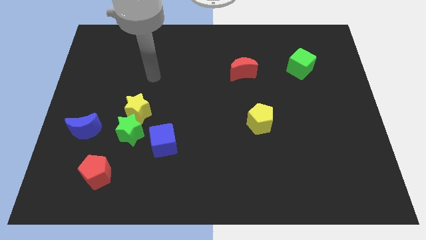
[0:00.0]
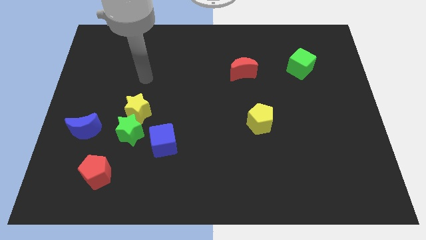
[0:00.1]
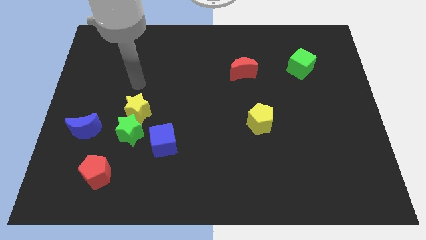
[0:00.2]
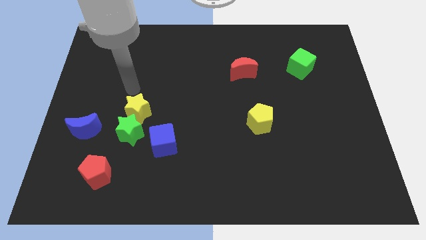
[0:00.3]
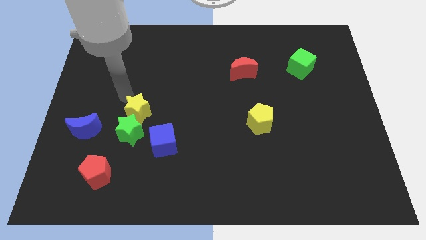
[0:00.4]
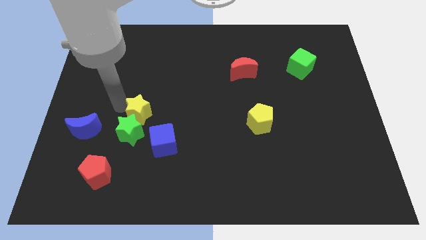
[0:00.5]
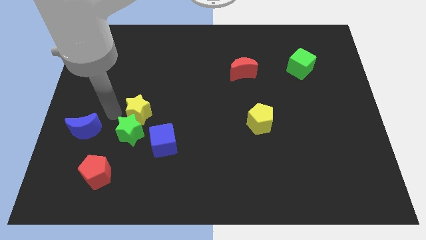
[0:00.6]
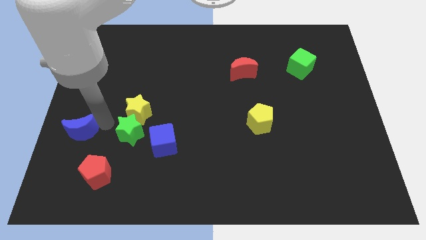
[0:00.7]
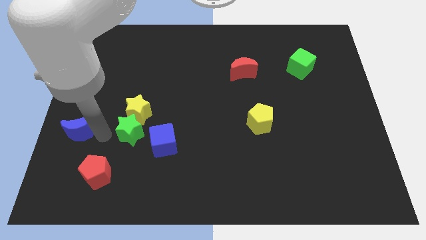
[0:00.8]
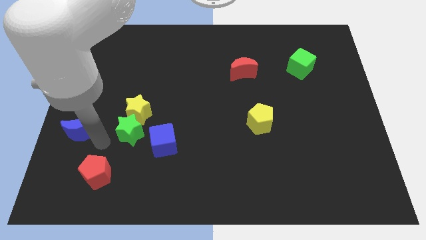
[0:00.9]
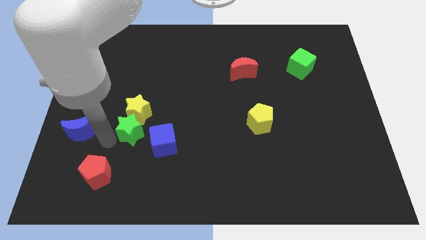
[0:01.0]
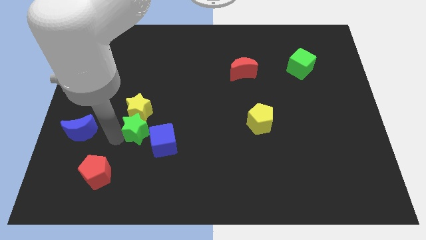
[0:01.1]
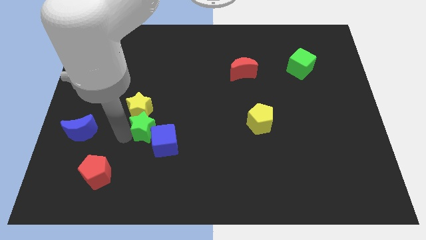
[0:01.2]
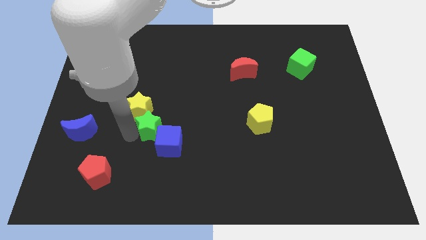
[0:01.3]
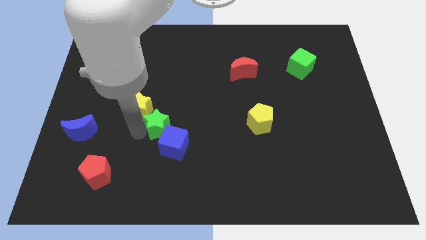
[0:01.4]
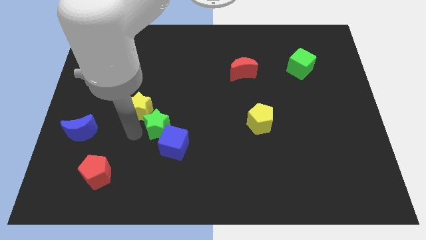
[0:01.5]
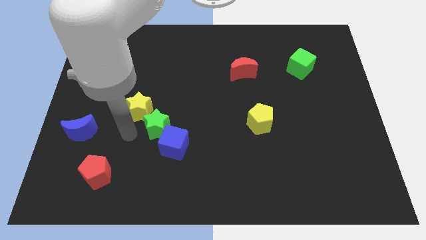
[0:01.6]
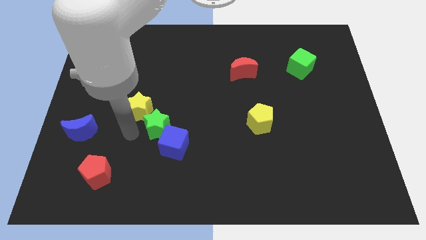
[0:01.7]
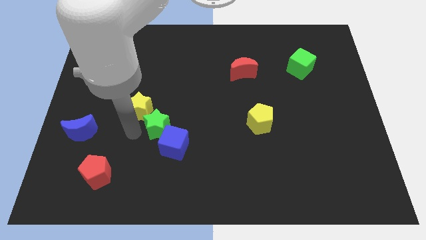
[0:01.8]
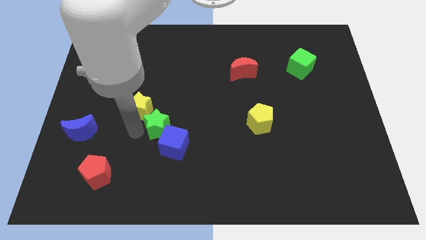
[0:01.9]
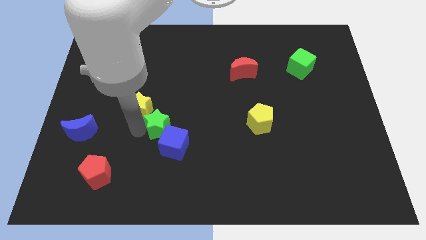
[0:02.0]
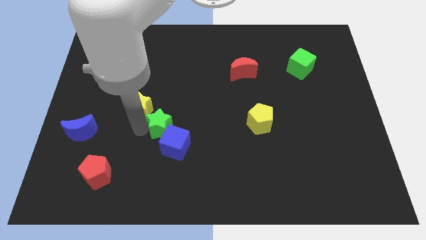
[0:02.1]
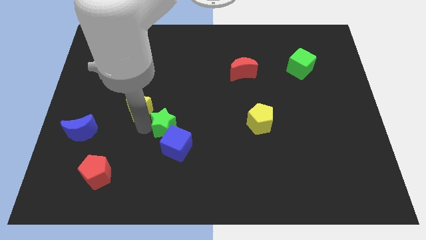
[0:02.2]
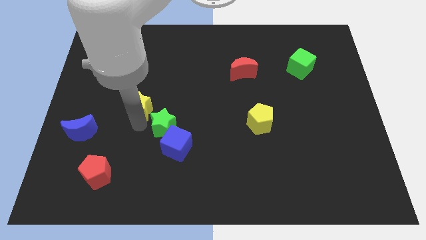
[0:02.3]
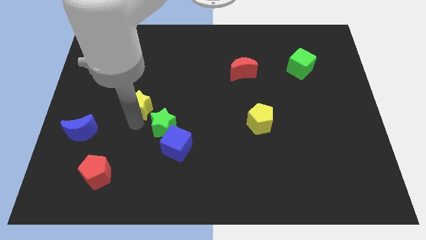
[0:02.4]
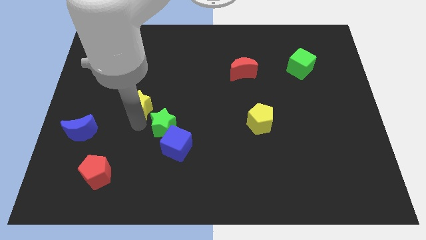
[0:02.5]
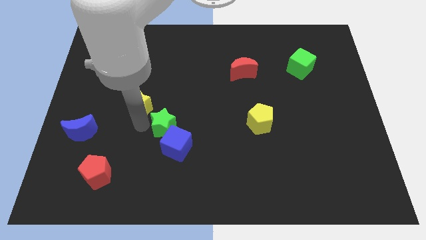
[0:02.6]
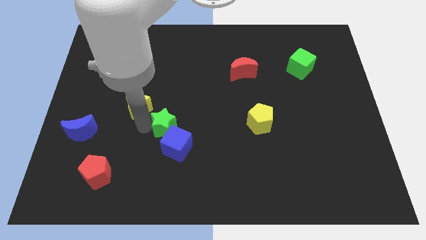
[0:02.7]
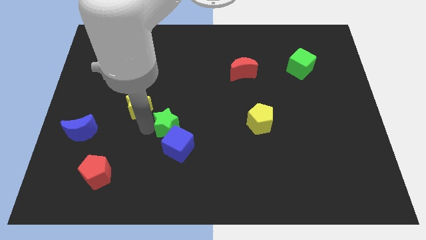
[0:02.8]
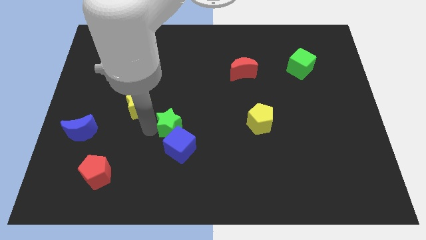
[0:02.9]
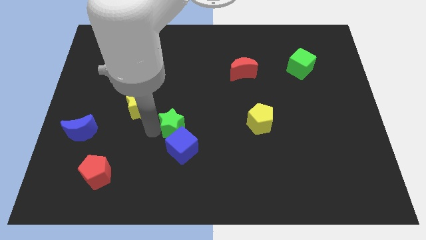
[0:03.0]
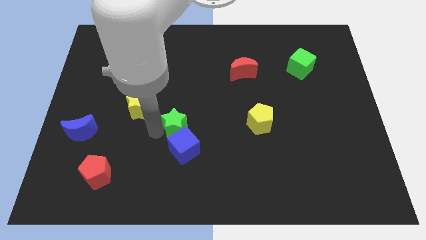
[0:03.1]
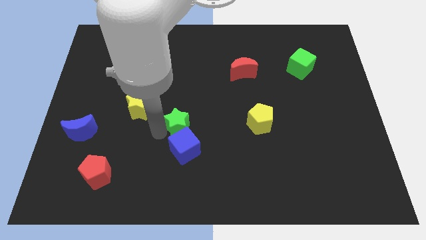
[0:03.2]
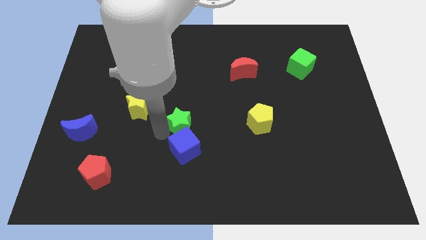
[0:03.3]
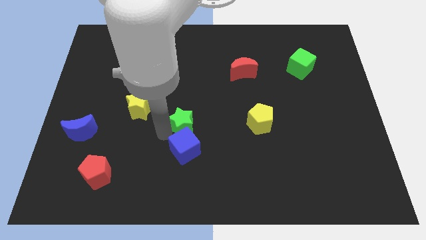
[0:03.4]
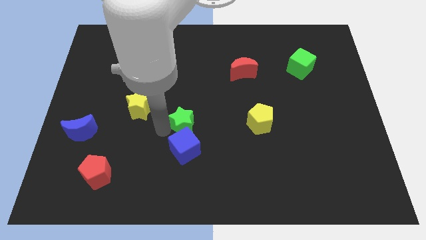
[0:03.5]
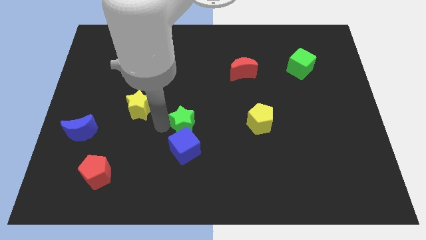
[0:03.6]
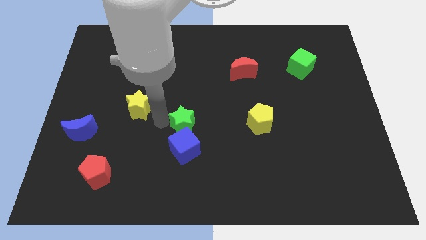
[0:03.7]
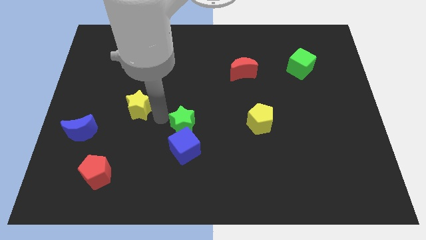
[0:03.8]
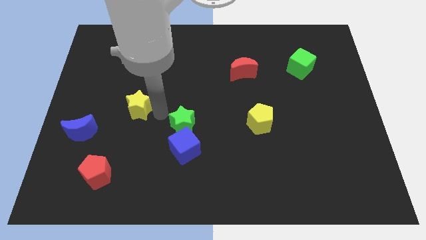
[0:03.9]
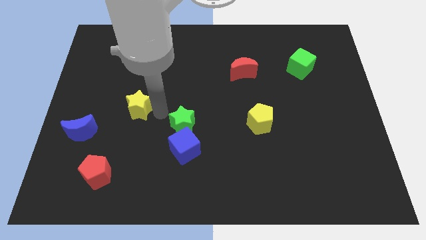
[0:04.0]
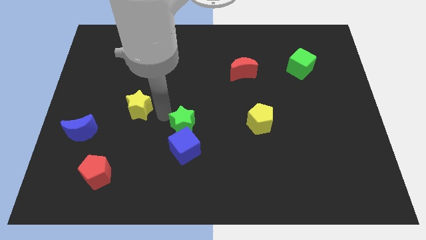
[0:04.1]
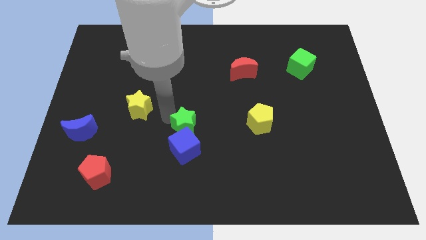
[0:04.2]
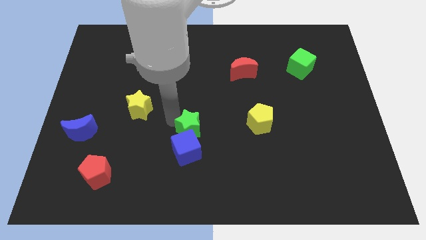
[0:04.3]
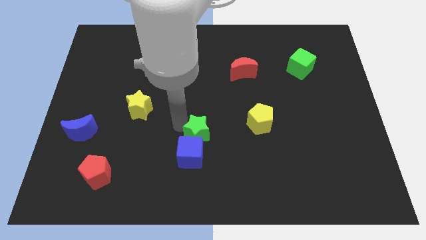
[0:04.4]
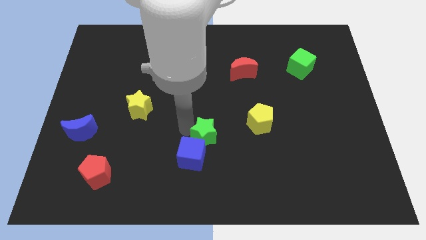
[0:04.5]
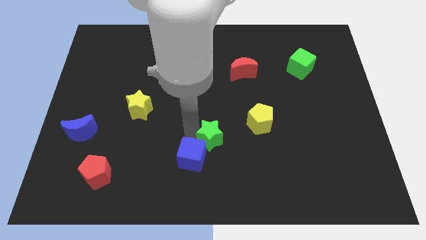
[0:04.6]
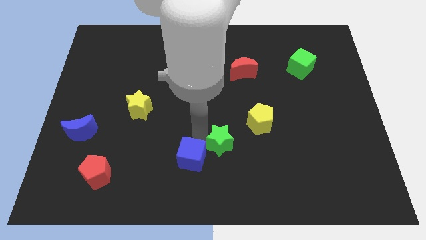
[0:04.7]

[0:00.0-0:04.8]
slide the green star right

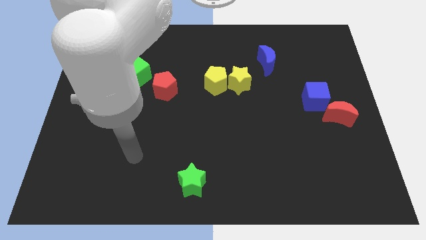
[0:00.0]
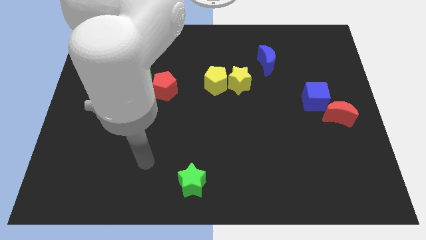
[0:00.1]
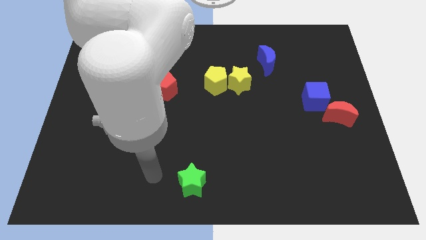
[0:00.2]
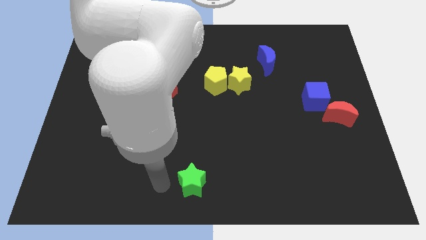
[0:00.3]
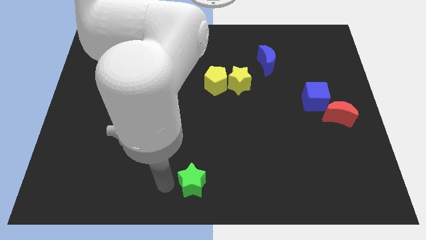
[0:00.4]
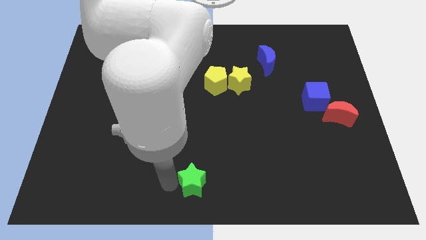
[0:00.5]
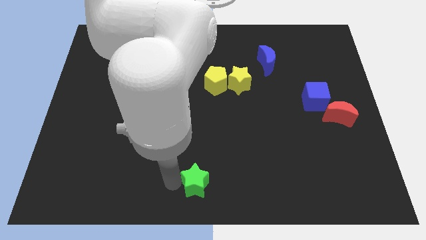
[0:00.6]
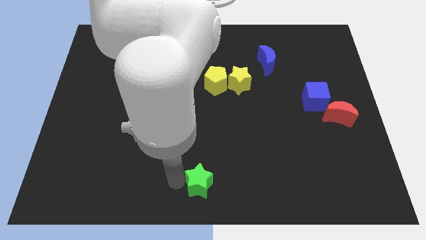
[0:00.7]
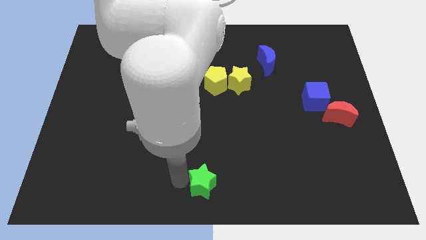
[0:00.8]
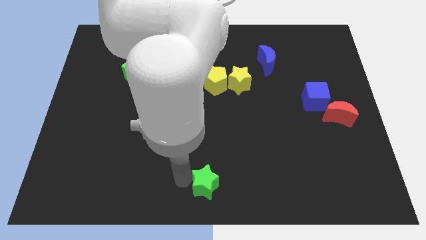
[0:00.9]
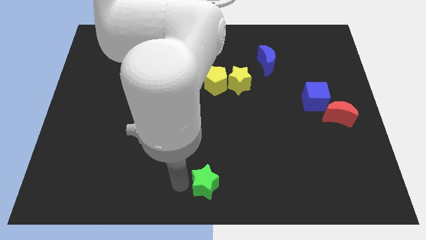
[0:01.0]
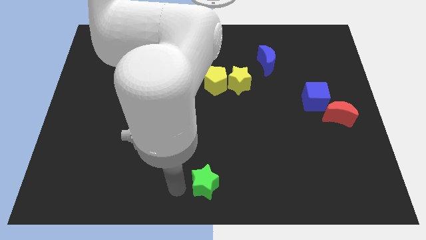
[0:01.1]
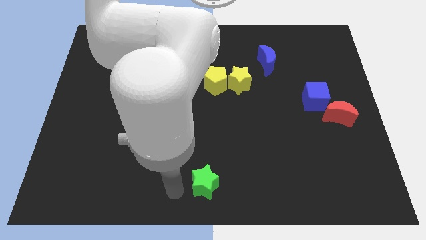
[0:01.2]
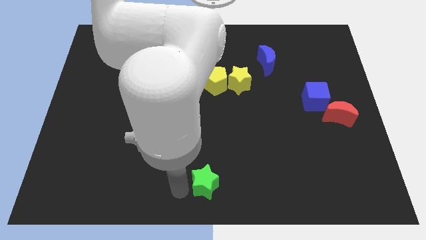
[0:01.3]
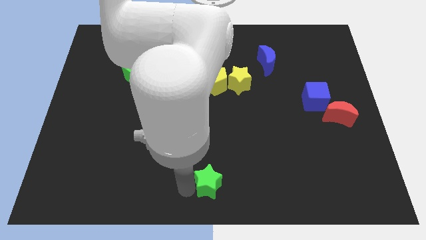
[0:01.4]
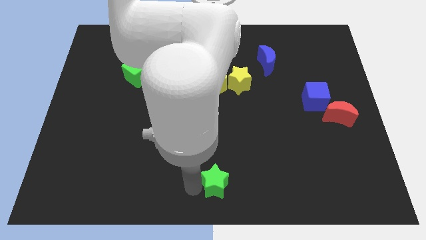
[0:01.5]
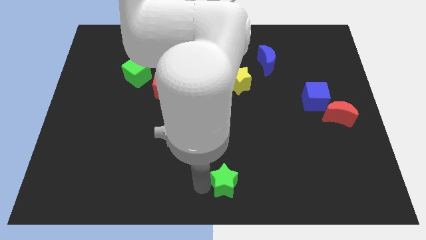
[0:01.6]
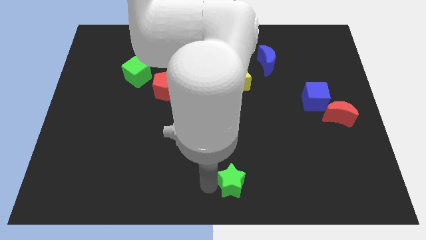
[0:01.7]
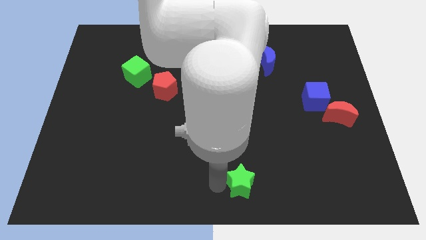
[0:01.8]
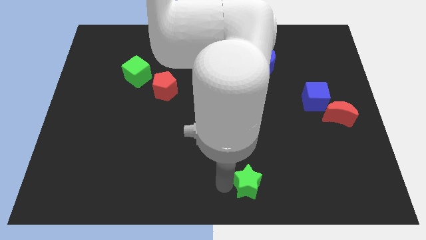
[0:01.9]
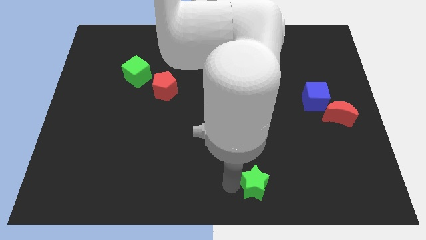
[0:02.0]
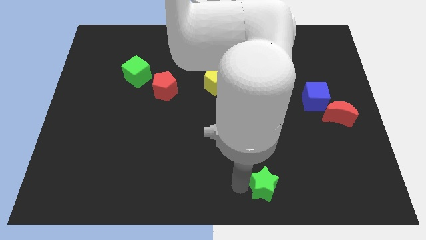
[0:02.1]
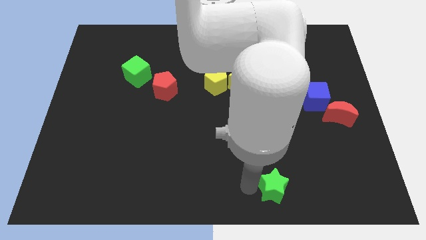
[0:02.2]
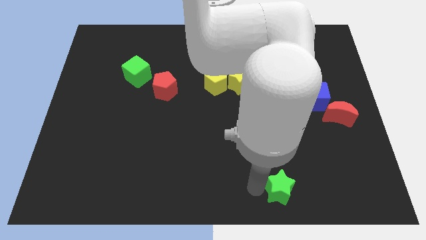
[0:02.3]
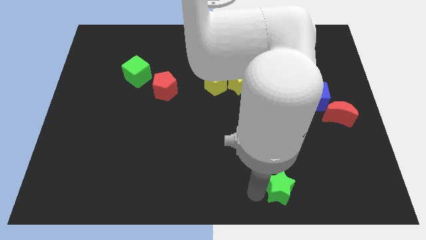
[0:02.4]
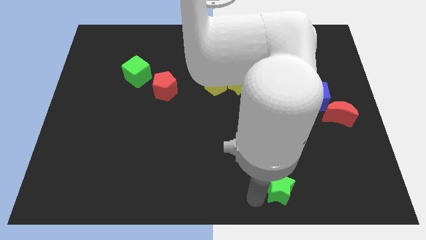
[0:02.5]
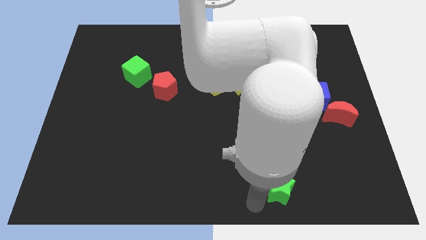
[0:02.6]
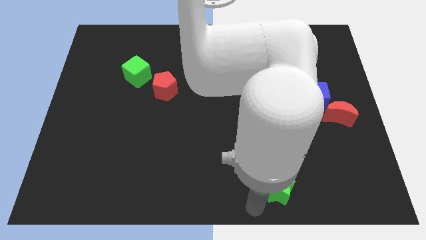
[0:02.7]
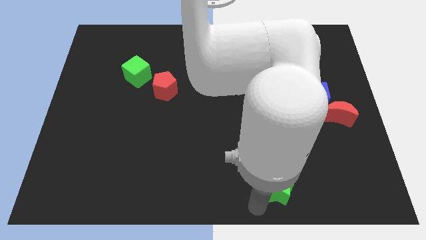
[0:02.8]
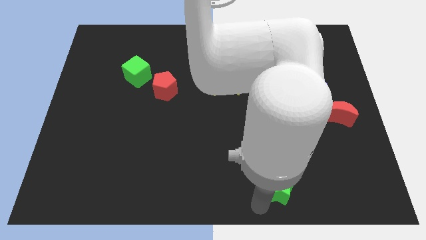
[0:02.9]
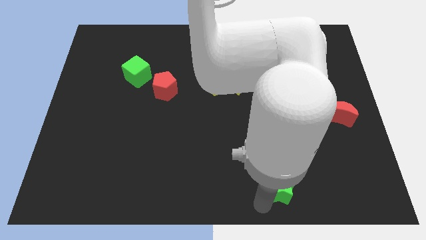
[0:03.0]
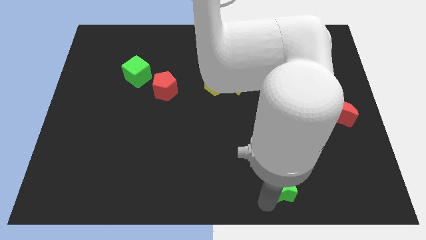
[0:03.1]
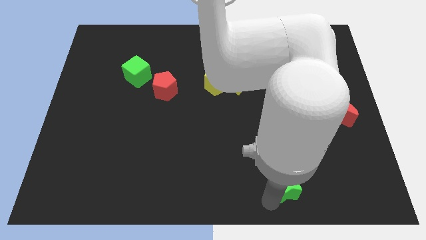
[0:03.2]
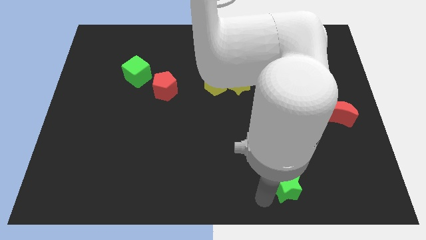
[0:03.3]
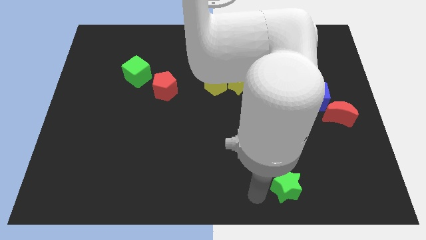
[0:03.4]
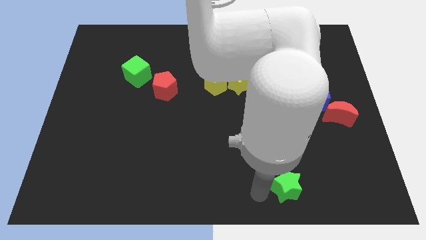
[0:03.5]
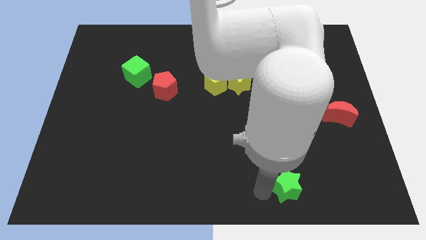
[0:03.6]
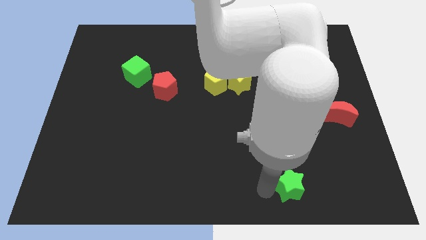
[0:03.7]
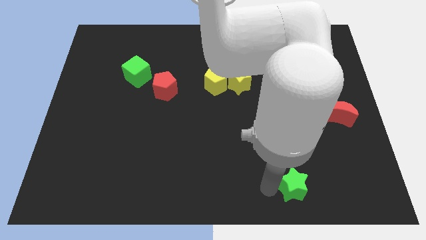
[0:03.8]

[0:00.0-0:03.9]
move the green star to the right
